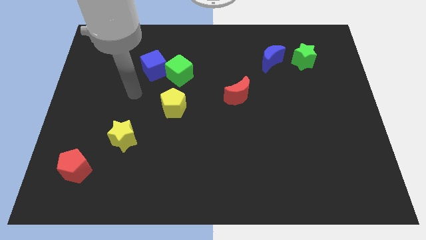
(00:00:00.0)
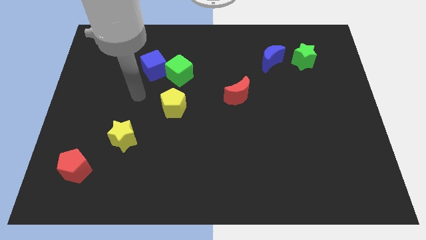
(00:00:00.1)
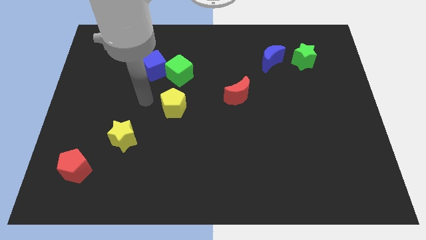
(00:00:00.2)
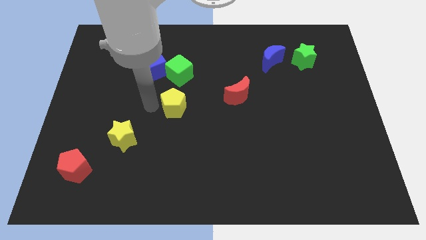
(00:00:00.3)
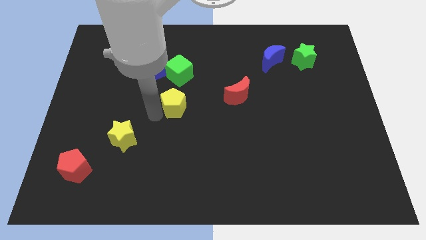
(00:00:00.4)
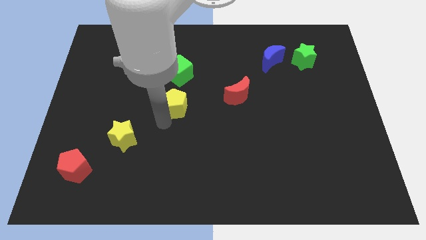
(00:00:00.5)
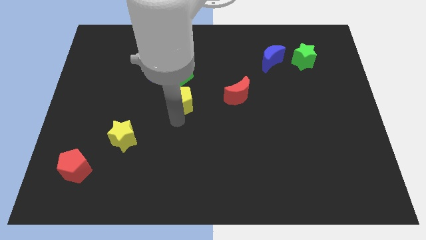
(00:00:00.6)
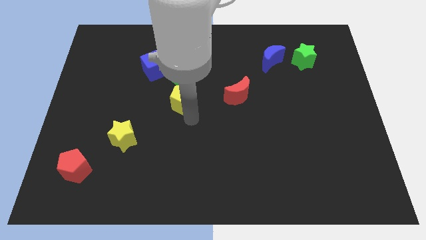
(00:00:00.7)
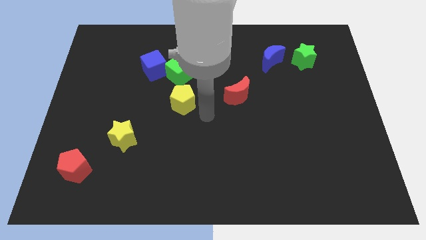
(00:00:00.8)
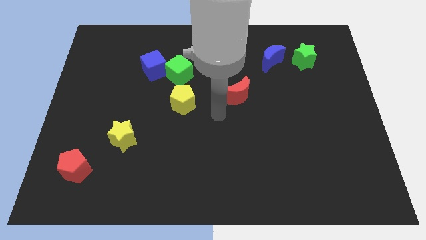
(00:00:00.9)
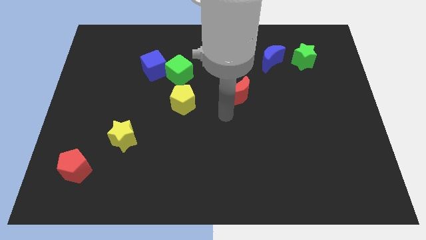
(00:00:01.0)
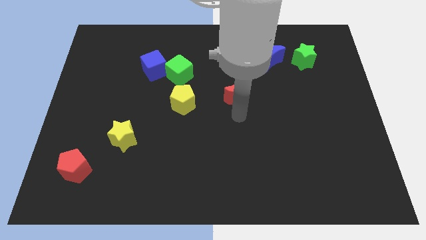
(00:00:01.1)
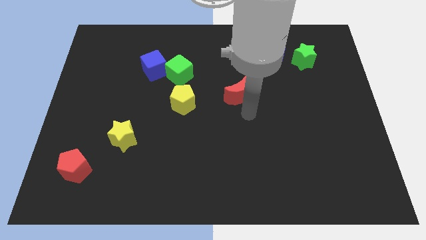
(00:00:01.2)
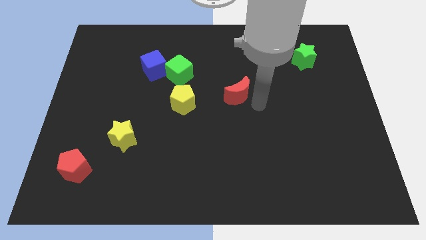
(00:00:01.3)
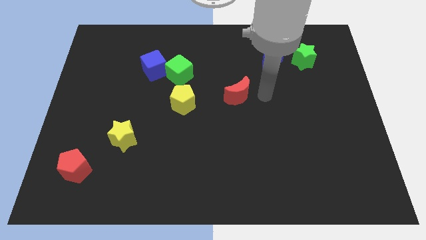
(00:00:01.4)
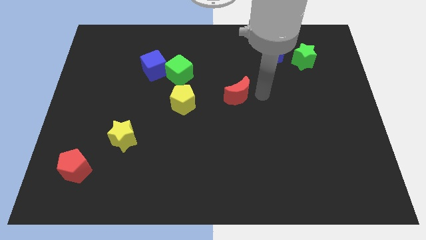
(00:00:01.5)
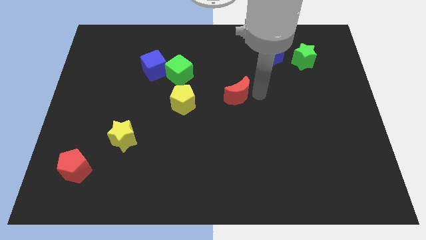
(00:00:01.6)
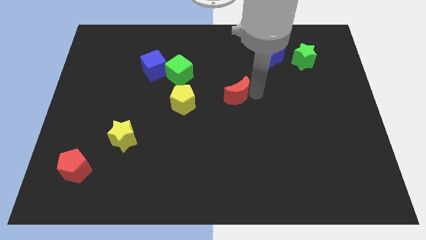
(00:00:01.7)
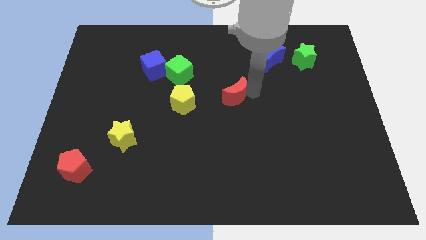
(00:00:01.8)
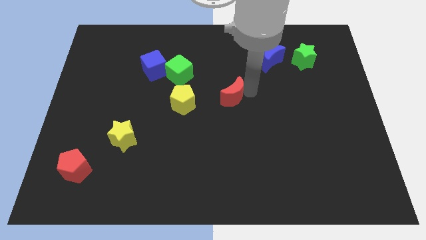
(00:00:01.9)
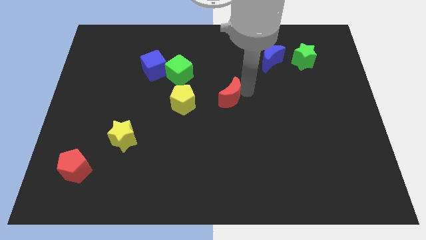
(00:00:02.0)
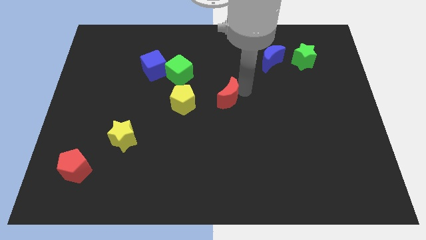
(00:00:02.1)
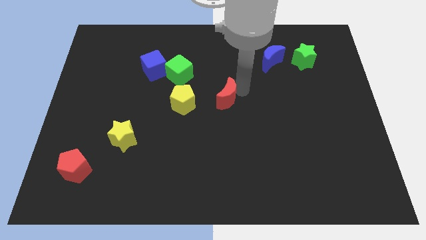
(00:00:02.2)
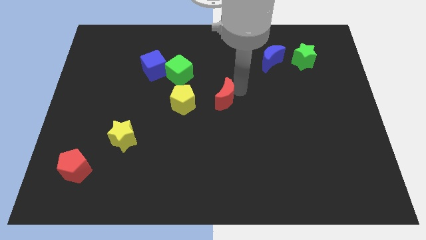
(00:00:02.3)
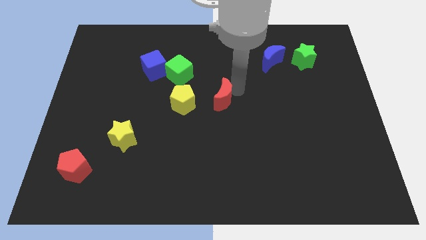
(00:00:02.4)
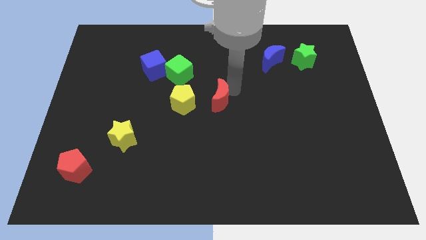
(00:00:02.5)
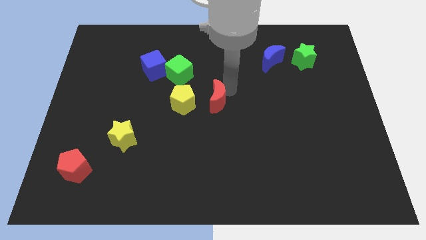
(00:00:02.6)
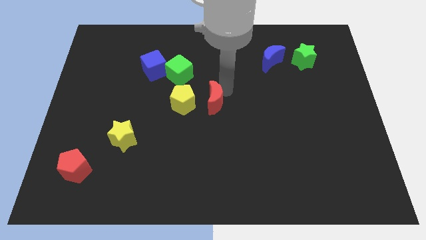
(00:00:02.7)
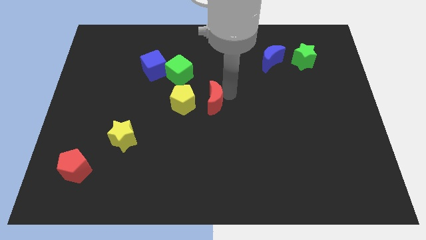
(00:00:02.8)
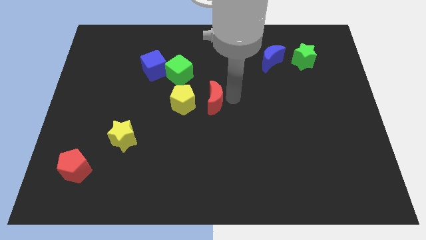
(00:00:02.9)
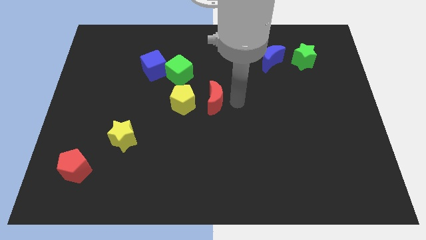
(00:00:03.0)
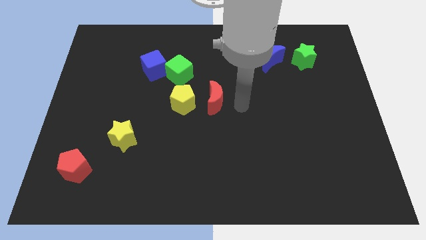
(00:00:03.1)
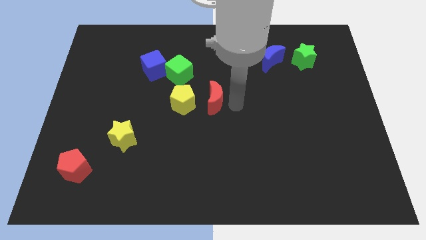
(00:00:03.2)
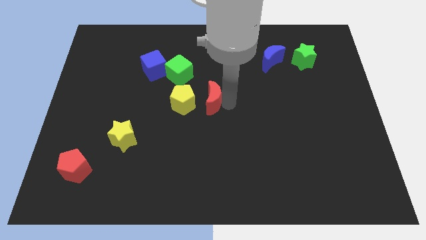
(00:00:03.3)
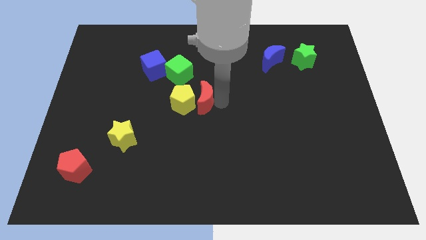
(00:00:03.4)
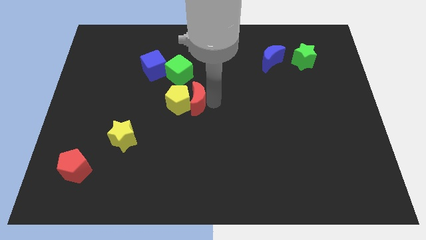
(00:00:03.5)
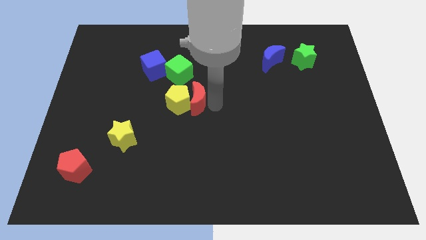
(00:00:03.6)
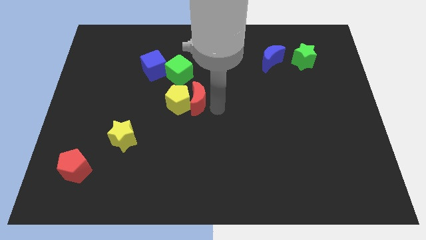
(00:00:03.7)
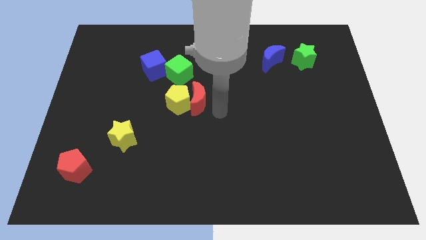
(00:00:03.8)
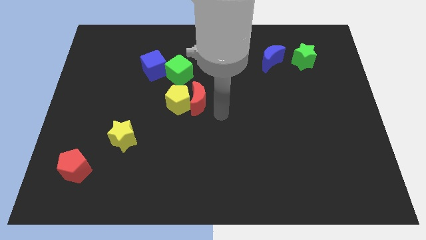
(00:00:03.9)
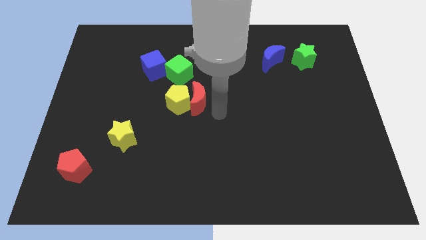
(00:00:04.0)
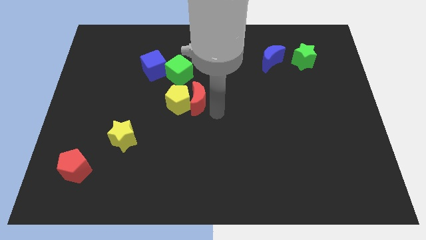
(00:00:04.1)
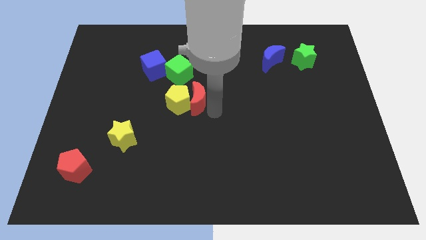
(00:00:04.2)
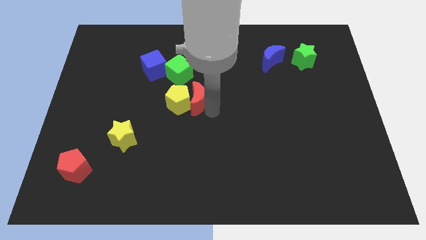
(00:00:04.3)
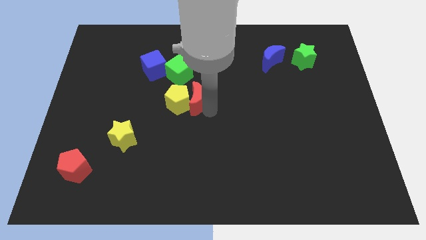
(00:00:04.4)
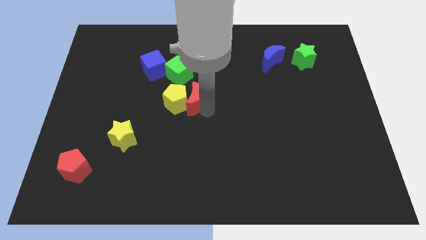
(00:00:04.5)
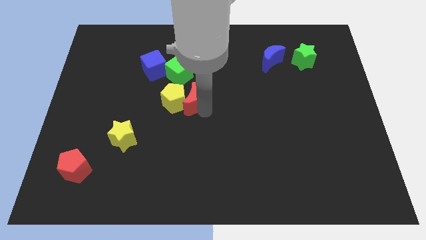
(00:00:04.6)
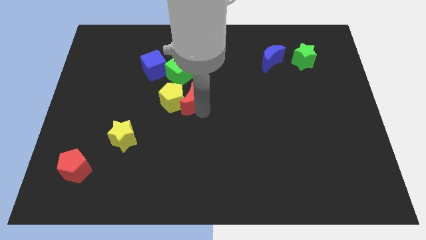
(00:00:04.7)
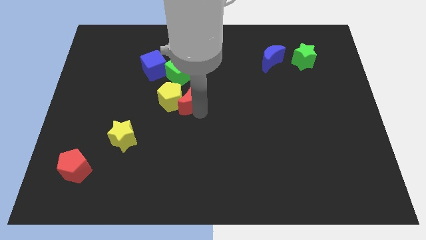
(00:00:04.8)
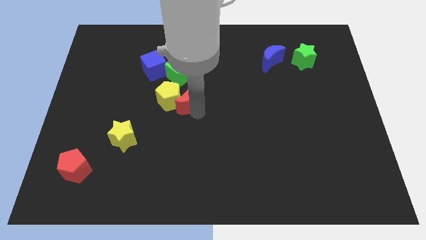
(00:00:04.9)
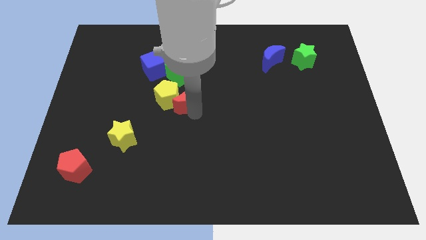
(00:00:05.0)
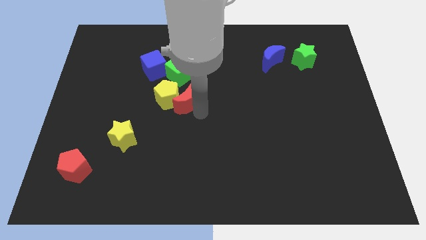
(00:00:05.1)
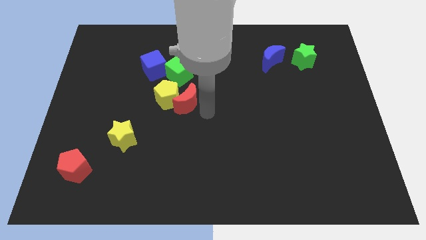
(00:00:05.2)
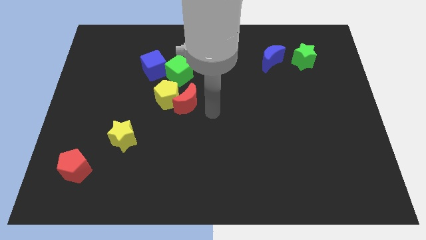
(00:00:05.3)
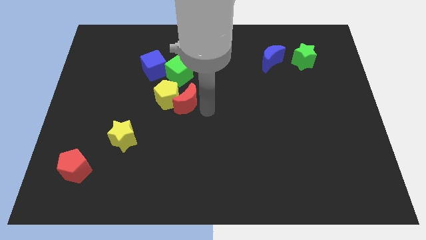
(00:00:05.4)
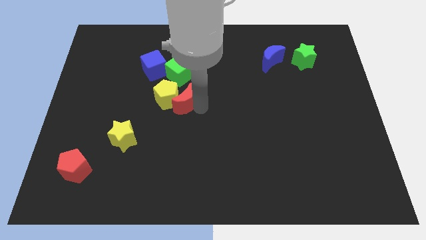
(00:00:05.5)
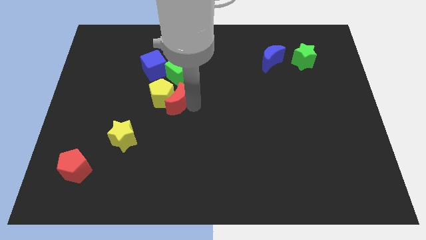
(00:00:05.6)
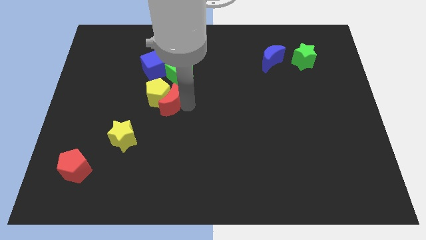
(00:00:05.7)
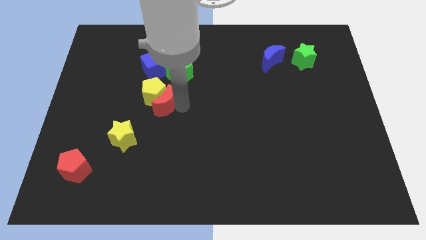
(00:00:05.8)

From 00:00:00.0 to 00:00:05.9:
put the red moon below the blue cube

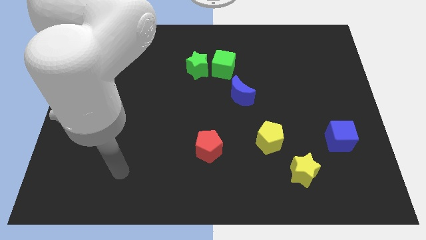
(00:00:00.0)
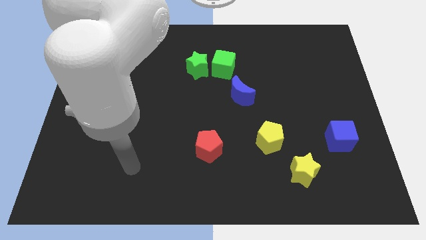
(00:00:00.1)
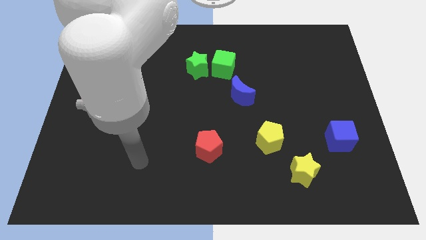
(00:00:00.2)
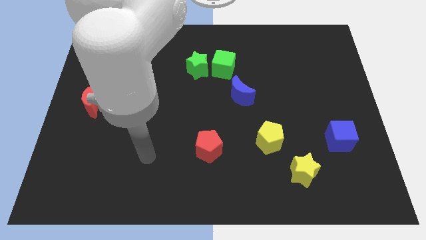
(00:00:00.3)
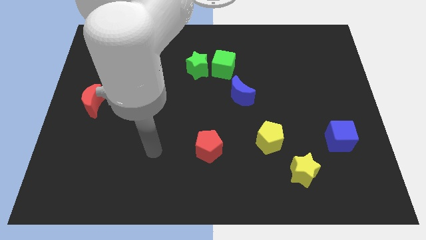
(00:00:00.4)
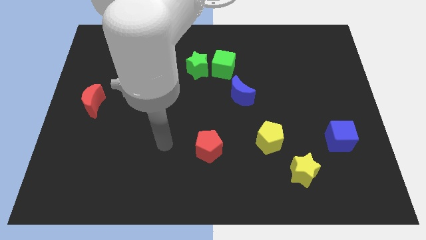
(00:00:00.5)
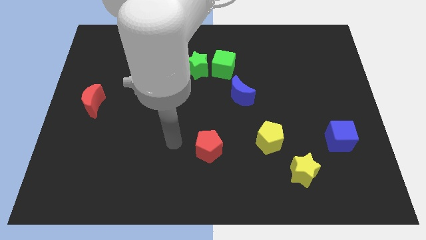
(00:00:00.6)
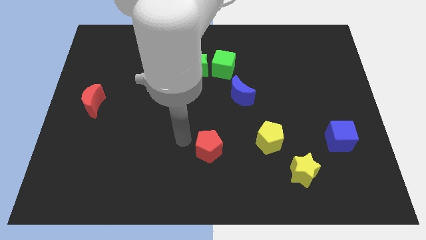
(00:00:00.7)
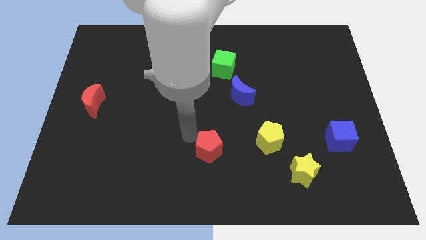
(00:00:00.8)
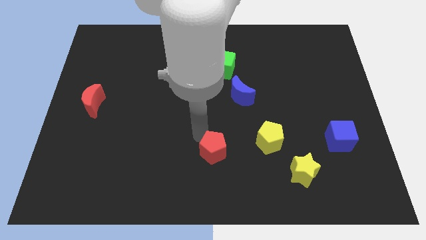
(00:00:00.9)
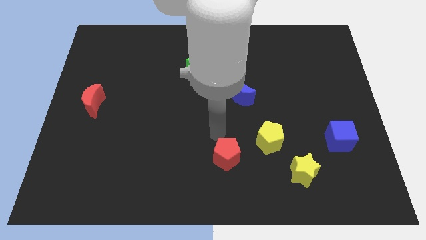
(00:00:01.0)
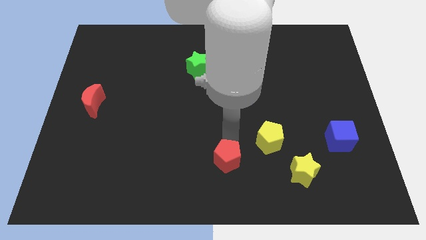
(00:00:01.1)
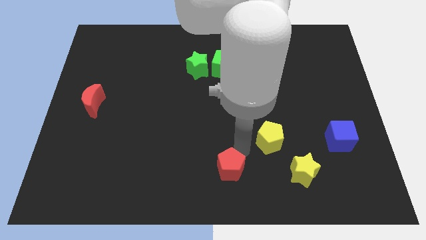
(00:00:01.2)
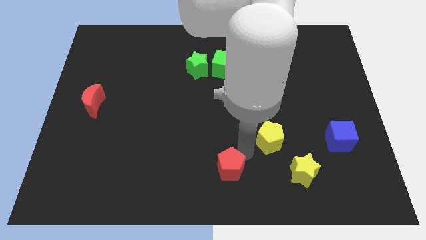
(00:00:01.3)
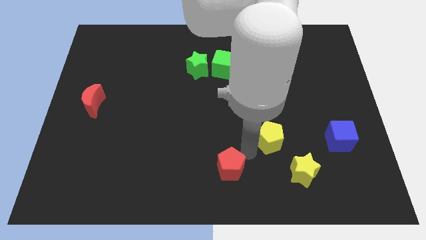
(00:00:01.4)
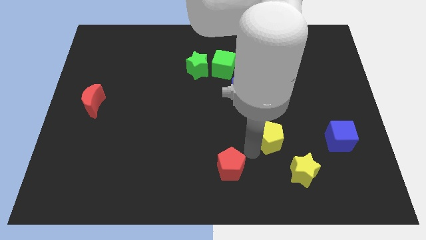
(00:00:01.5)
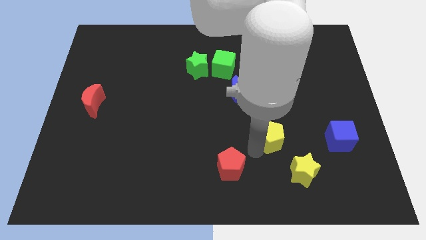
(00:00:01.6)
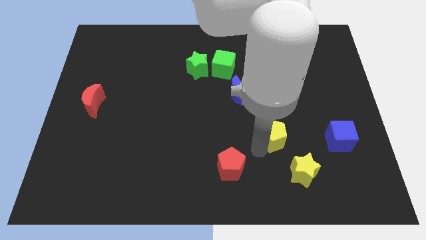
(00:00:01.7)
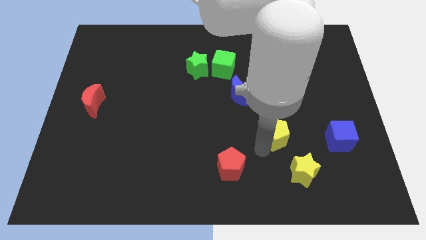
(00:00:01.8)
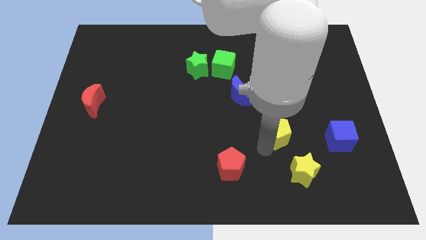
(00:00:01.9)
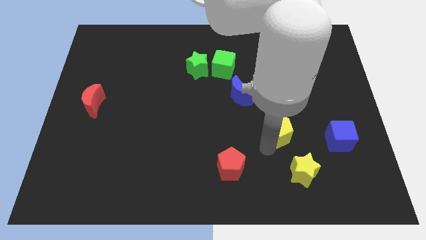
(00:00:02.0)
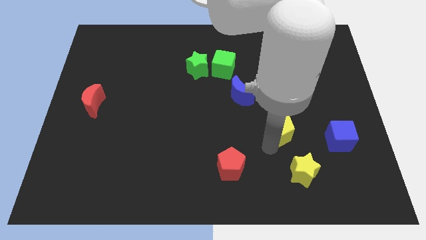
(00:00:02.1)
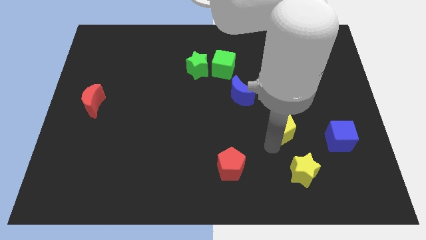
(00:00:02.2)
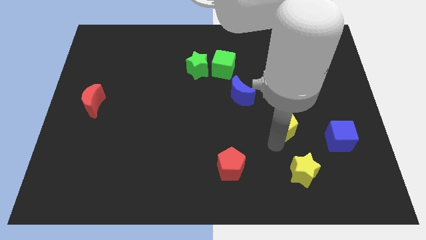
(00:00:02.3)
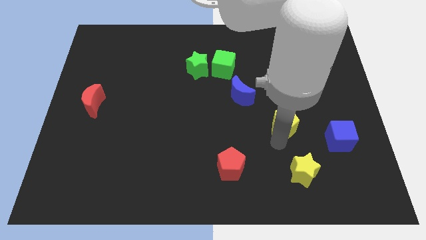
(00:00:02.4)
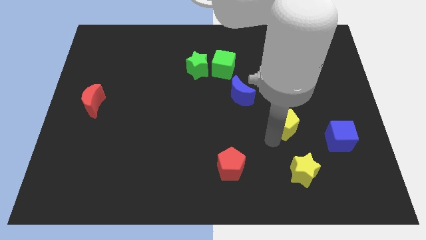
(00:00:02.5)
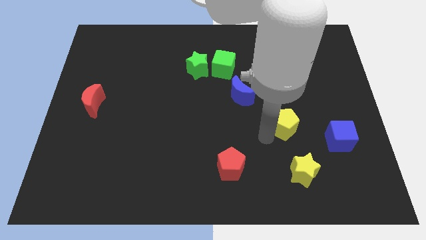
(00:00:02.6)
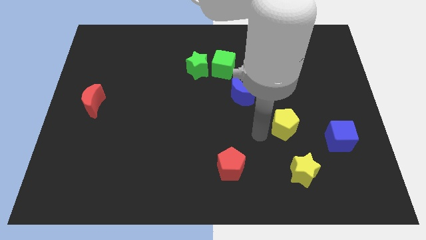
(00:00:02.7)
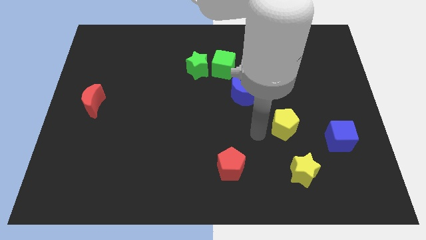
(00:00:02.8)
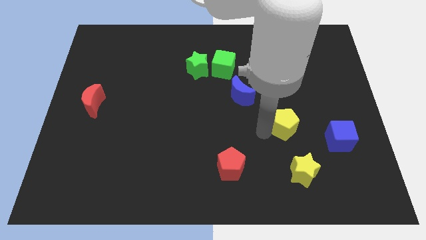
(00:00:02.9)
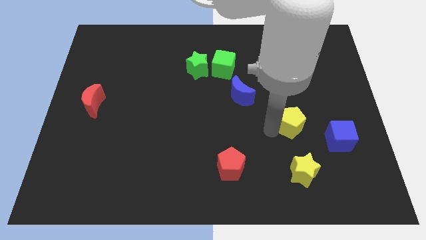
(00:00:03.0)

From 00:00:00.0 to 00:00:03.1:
push the yellow pentagon to the top left side of the blue cube
